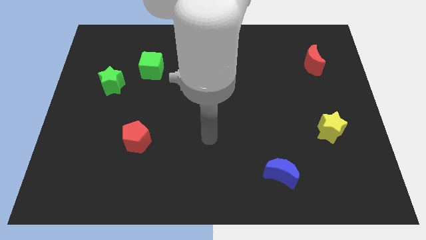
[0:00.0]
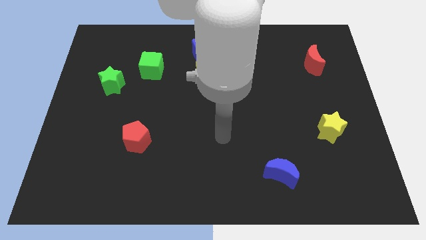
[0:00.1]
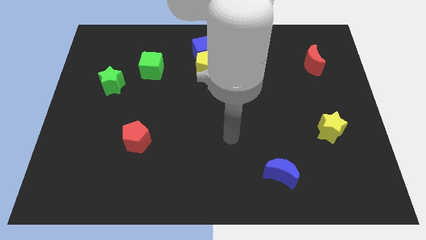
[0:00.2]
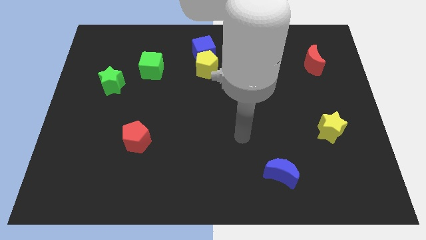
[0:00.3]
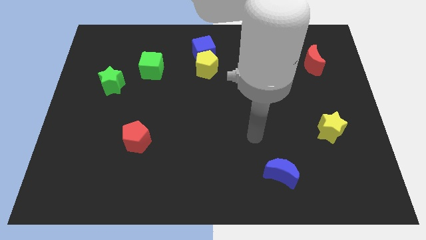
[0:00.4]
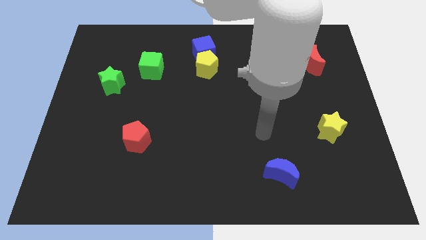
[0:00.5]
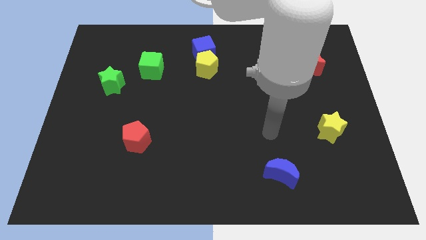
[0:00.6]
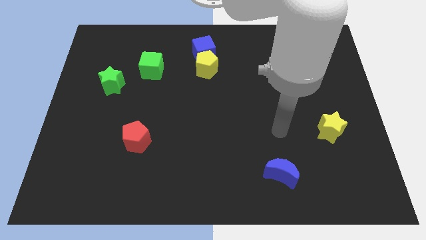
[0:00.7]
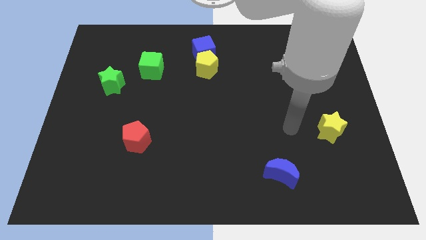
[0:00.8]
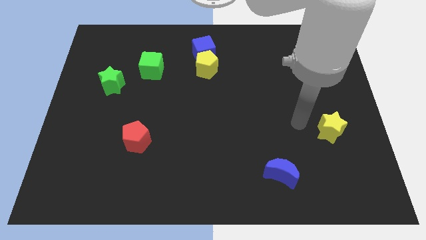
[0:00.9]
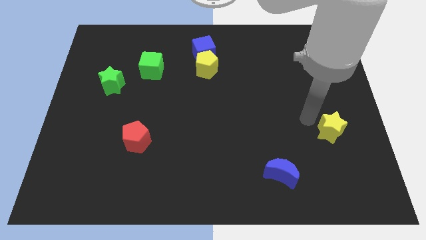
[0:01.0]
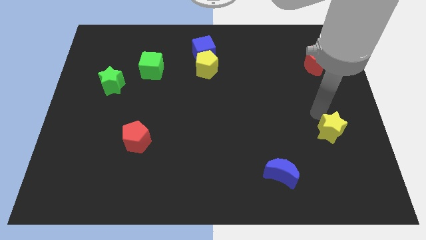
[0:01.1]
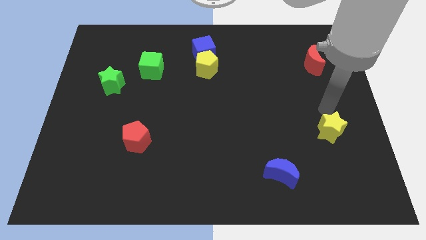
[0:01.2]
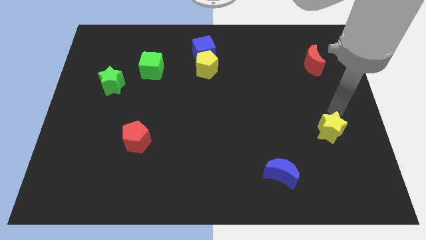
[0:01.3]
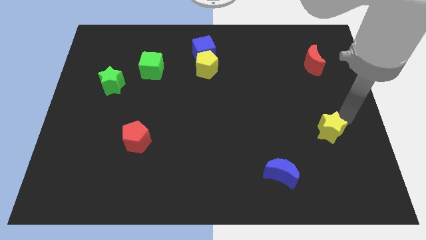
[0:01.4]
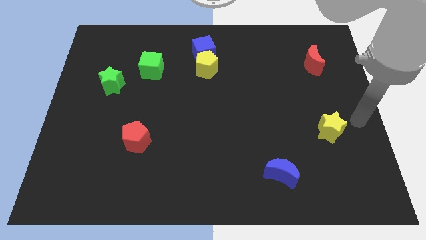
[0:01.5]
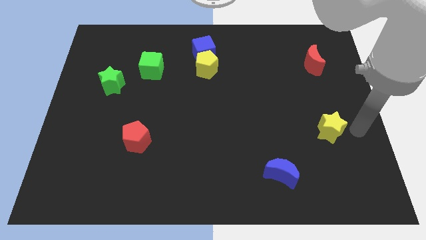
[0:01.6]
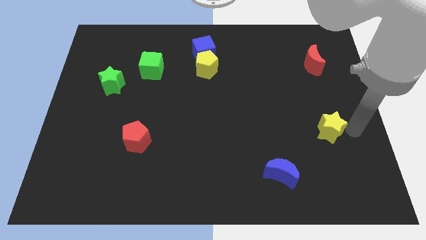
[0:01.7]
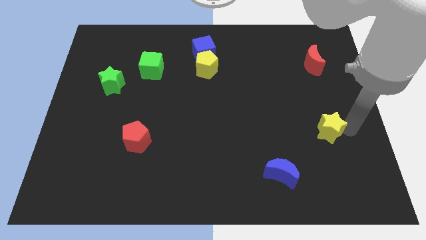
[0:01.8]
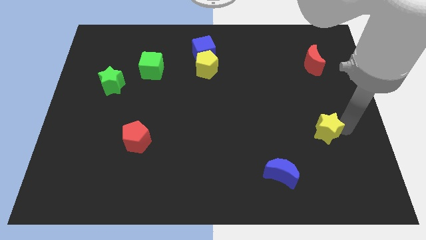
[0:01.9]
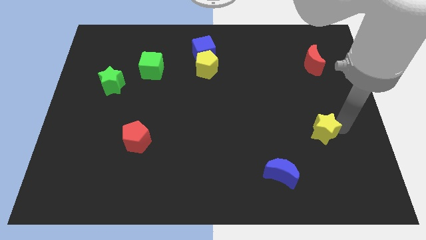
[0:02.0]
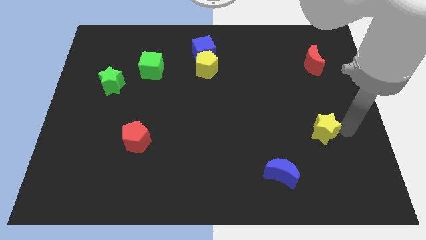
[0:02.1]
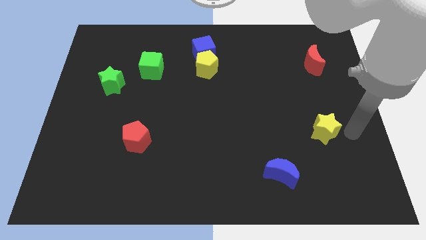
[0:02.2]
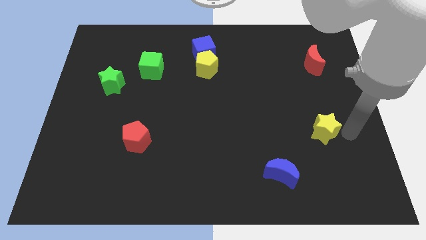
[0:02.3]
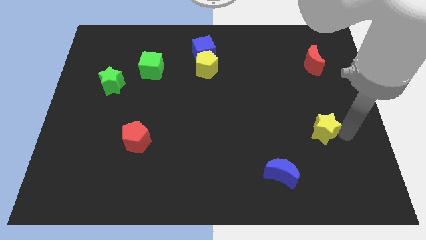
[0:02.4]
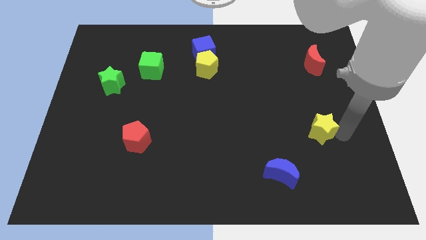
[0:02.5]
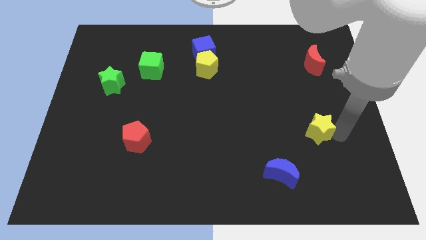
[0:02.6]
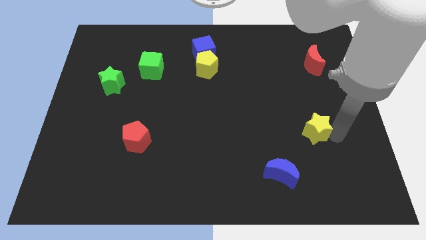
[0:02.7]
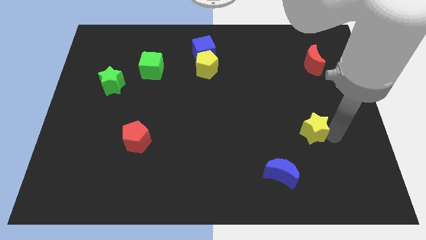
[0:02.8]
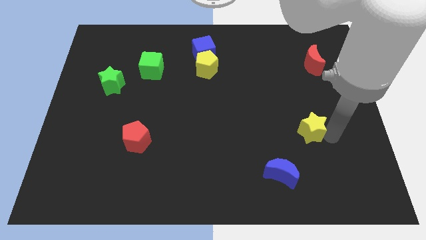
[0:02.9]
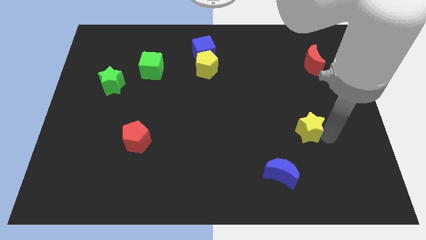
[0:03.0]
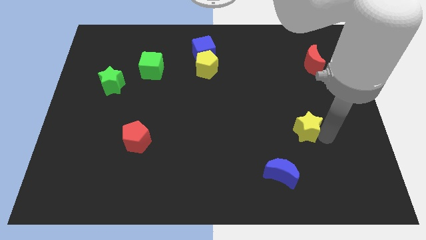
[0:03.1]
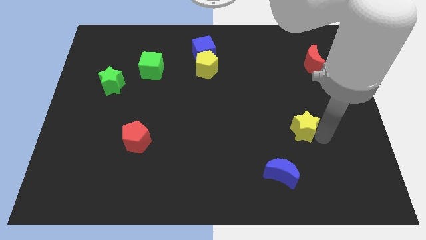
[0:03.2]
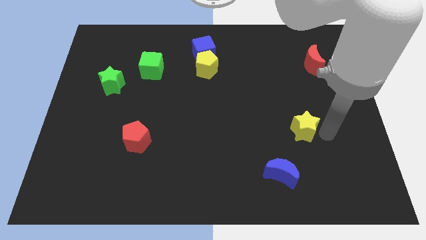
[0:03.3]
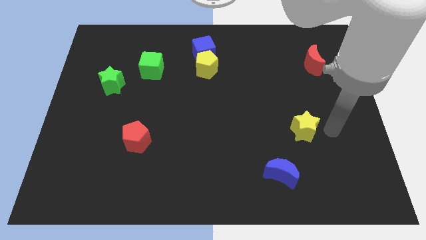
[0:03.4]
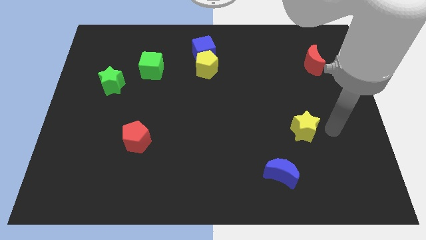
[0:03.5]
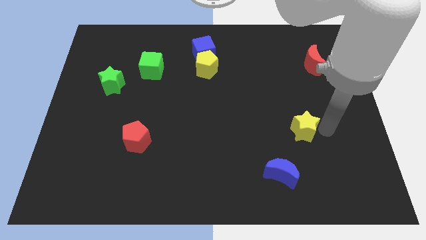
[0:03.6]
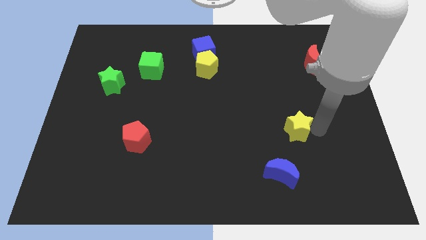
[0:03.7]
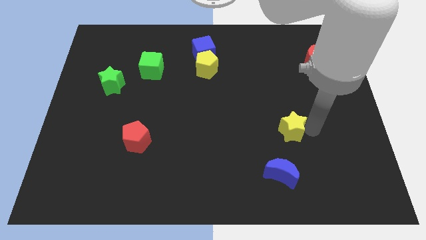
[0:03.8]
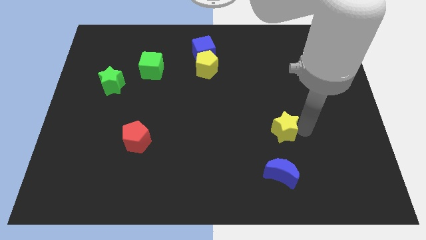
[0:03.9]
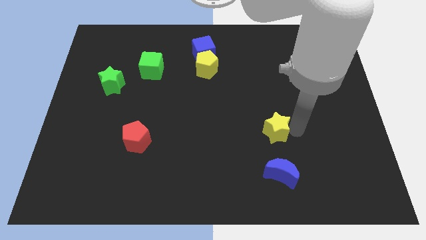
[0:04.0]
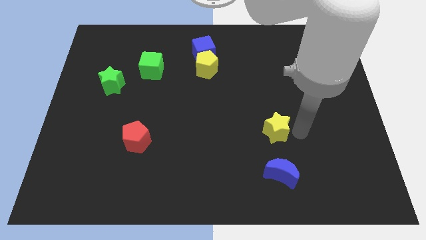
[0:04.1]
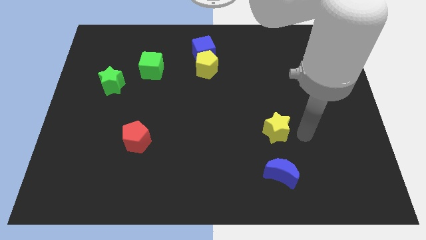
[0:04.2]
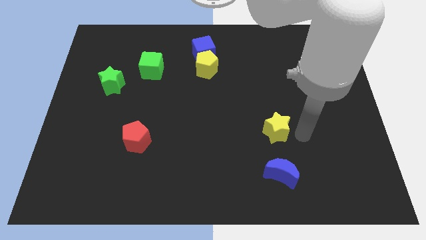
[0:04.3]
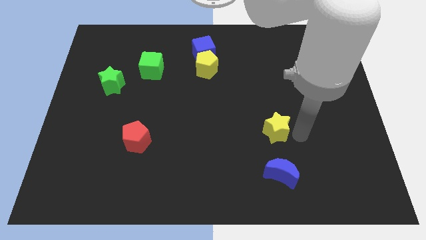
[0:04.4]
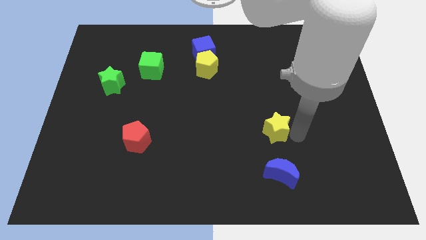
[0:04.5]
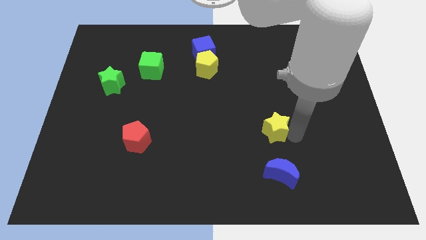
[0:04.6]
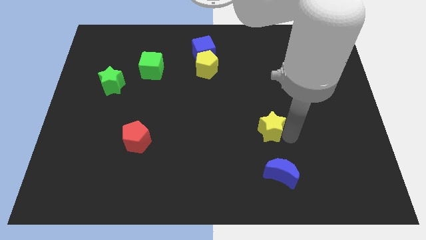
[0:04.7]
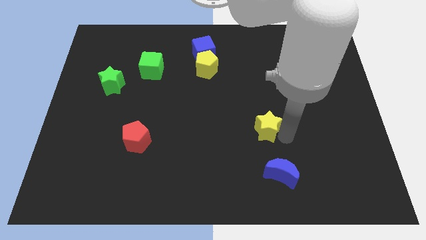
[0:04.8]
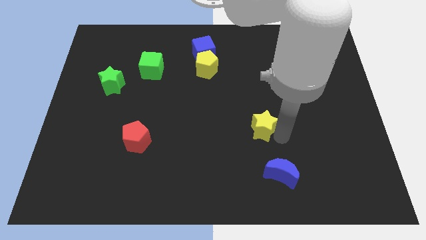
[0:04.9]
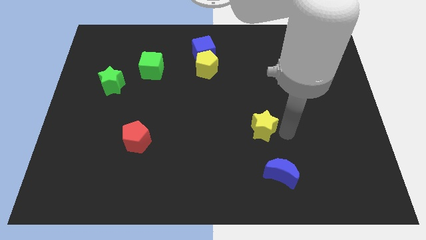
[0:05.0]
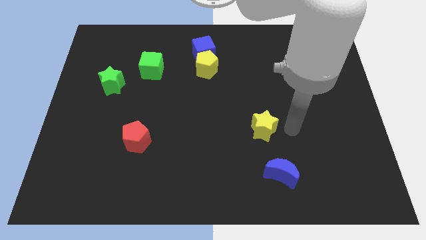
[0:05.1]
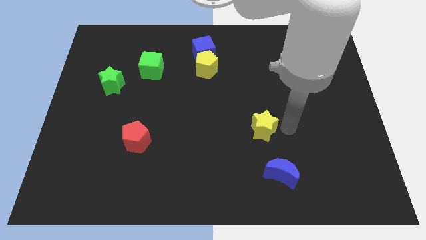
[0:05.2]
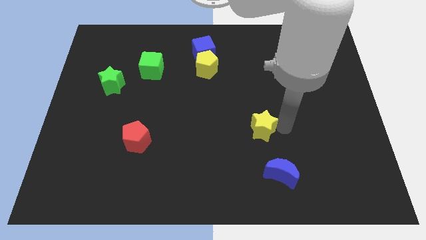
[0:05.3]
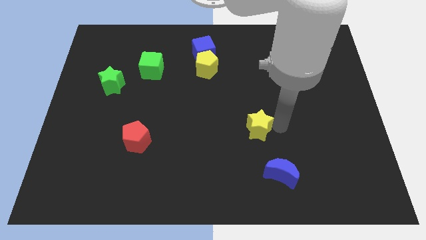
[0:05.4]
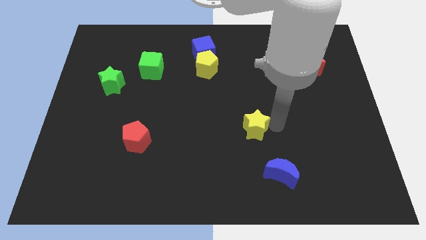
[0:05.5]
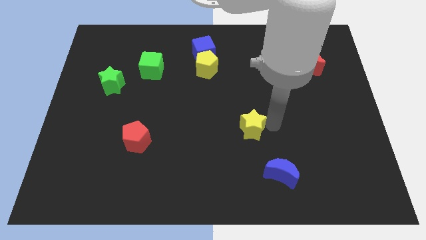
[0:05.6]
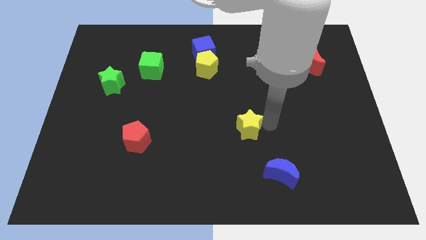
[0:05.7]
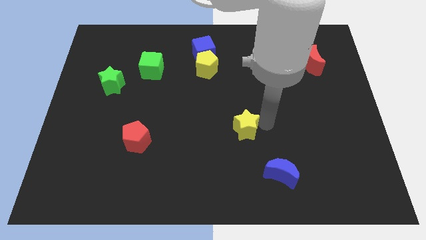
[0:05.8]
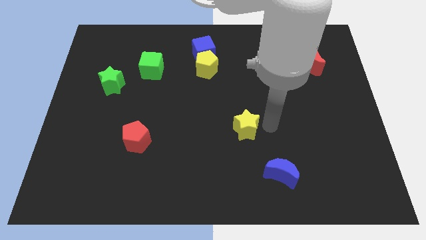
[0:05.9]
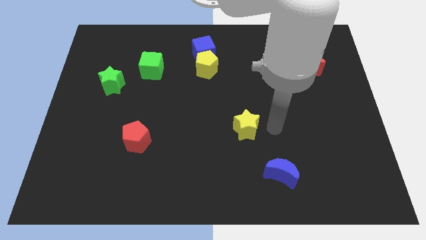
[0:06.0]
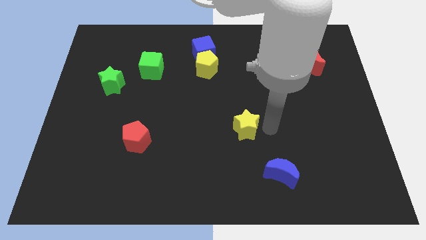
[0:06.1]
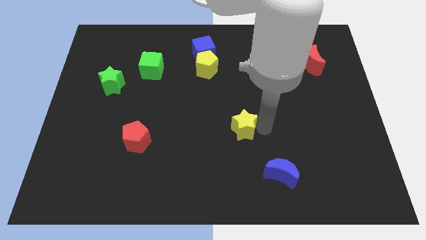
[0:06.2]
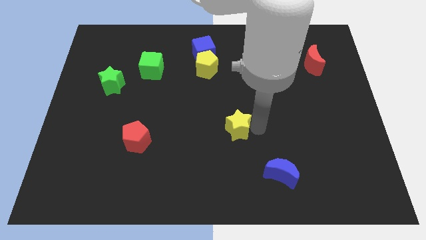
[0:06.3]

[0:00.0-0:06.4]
push the yellow star to the left

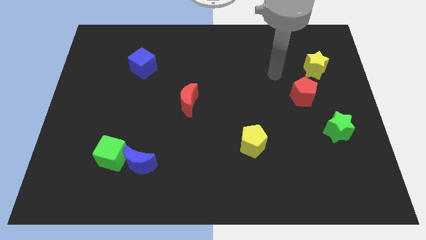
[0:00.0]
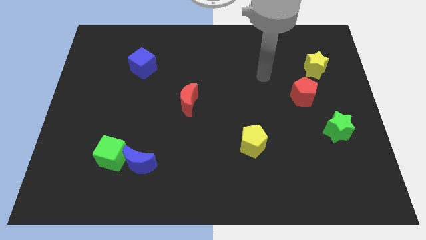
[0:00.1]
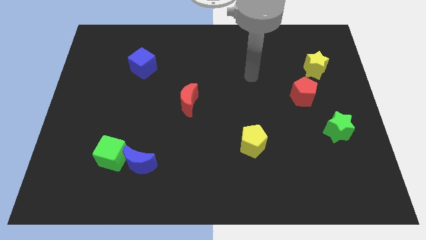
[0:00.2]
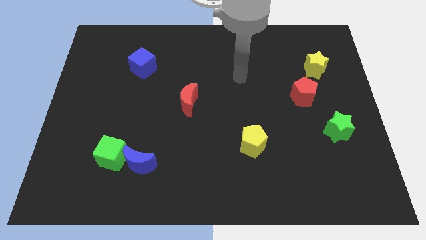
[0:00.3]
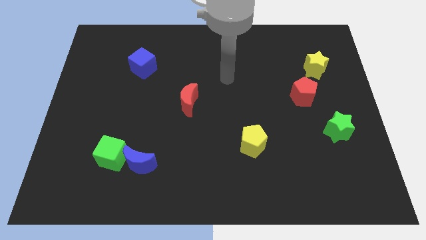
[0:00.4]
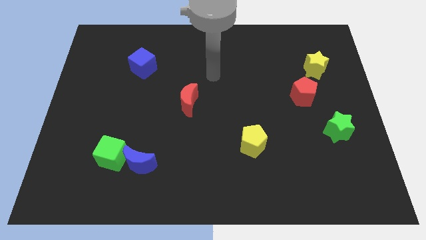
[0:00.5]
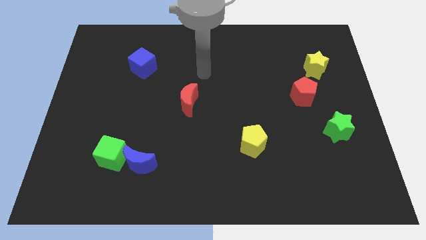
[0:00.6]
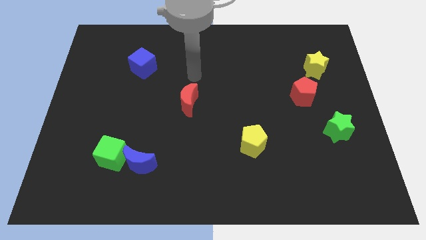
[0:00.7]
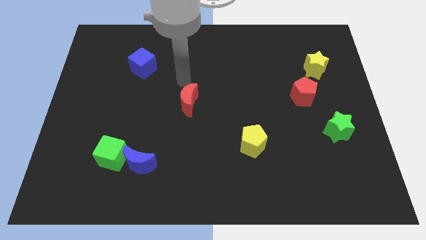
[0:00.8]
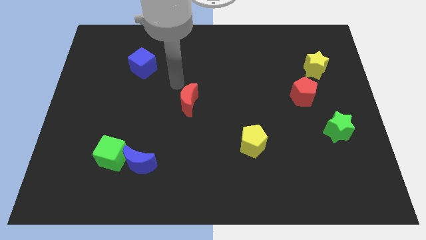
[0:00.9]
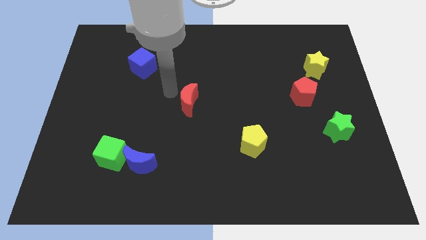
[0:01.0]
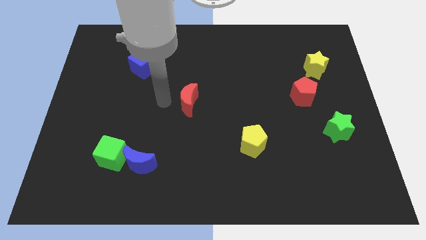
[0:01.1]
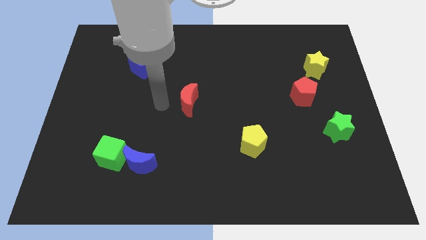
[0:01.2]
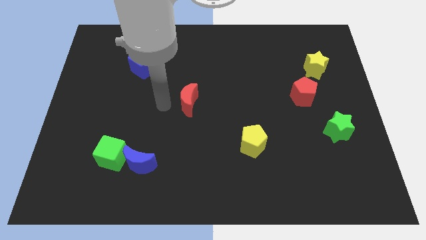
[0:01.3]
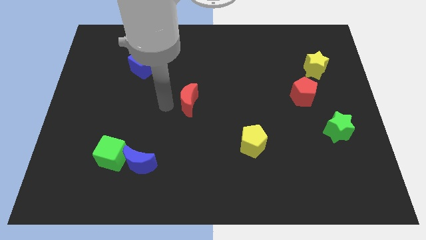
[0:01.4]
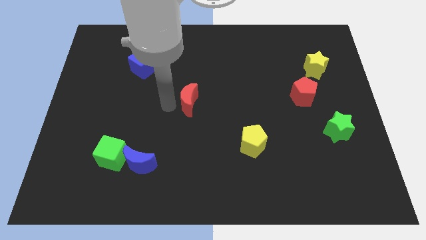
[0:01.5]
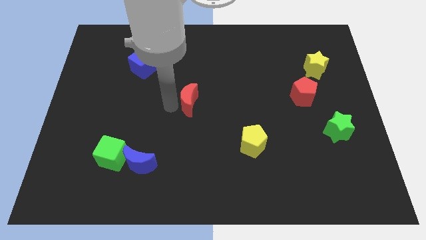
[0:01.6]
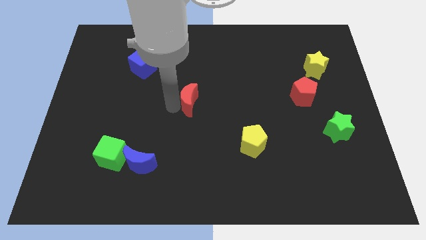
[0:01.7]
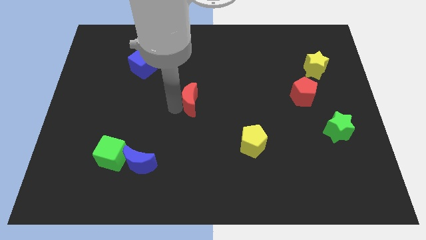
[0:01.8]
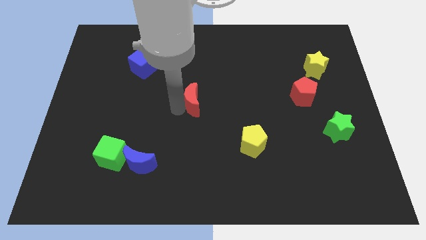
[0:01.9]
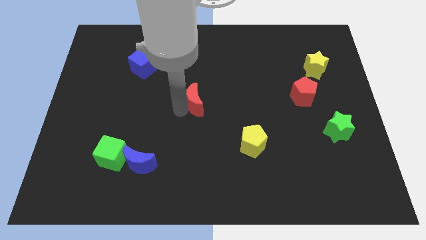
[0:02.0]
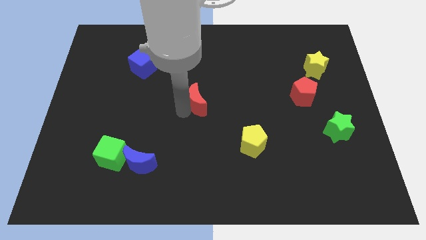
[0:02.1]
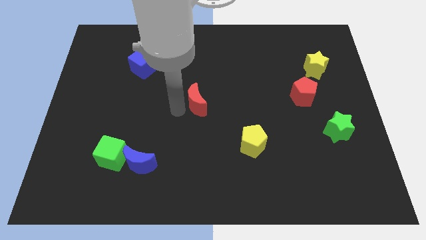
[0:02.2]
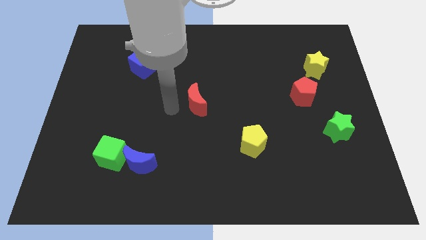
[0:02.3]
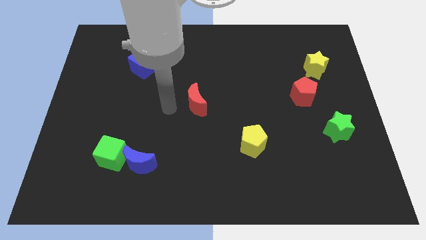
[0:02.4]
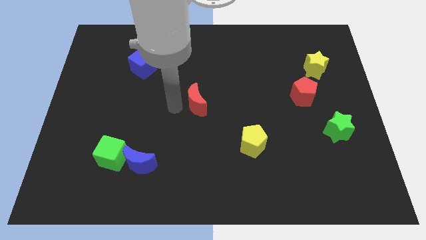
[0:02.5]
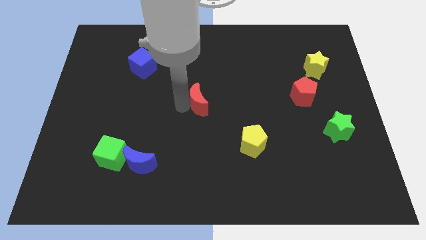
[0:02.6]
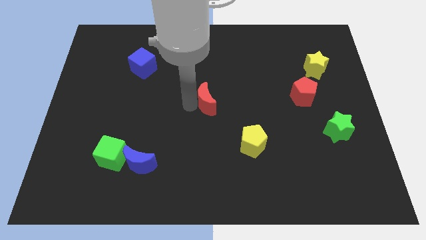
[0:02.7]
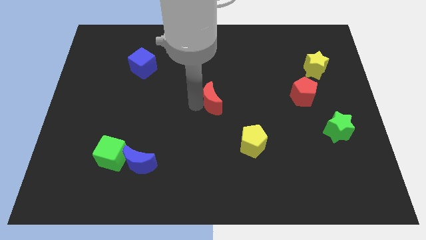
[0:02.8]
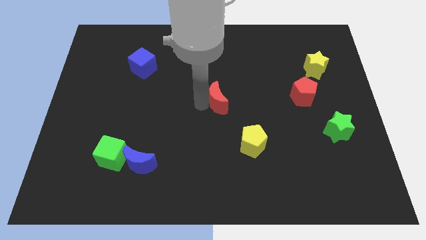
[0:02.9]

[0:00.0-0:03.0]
push the red moon right somewhat
